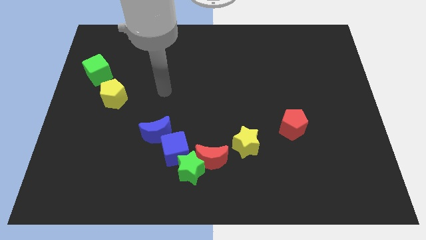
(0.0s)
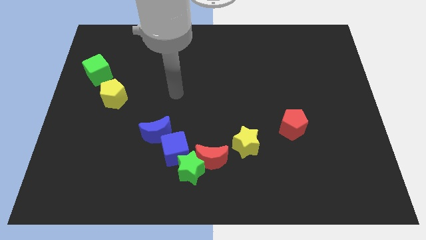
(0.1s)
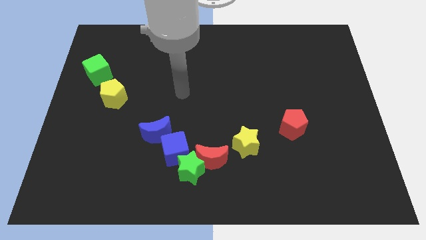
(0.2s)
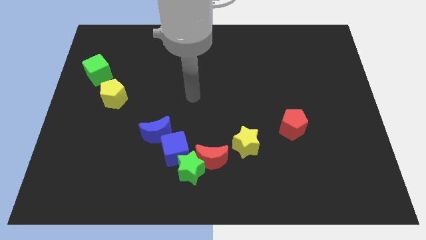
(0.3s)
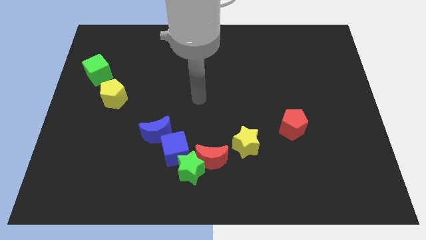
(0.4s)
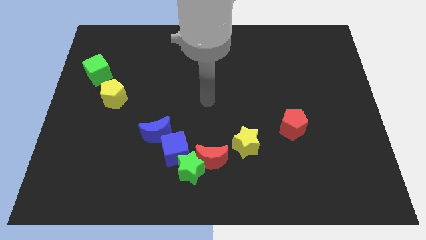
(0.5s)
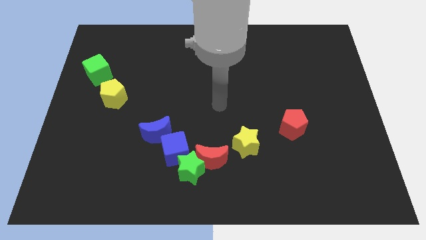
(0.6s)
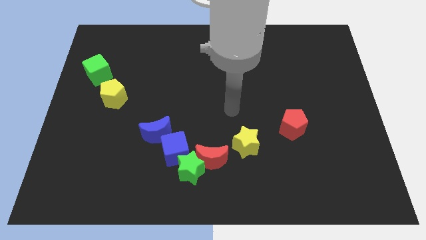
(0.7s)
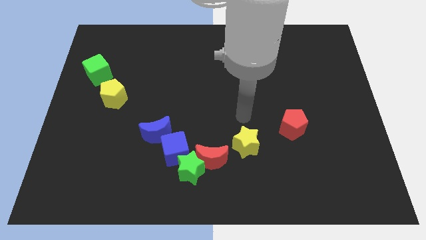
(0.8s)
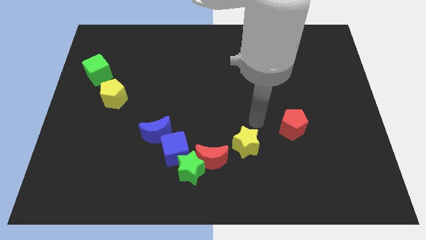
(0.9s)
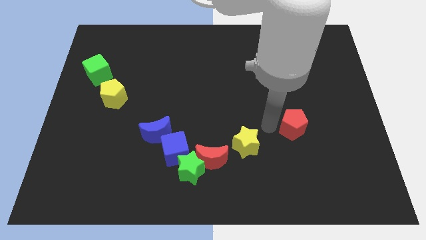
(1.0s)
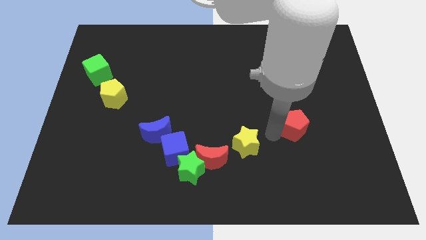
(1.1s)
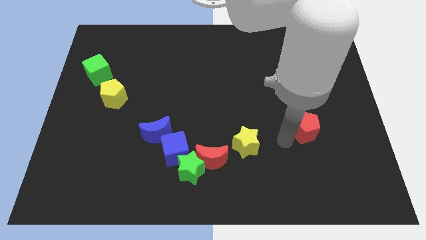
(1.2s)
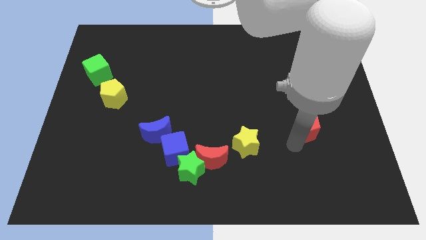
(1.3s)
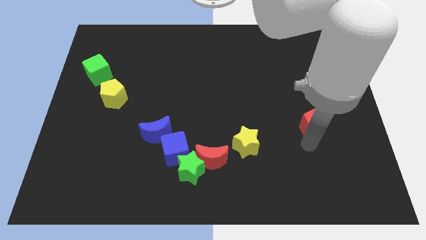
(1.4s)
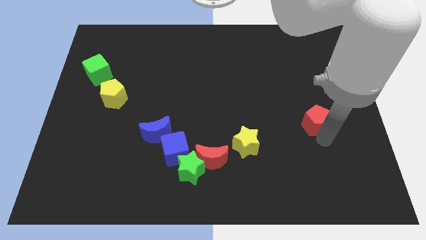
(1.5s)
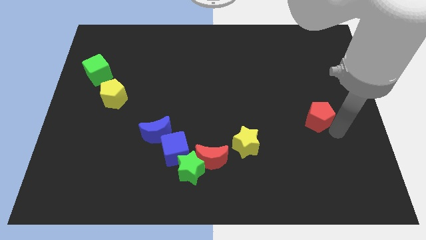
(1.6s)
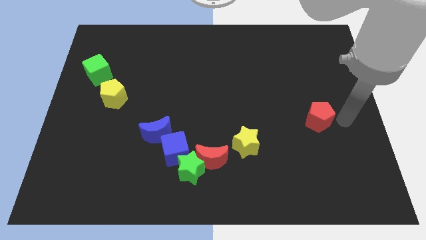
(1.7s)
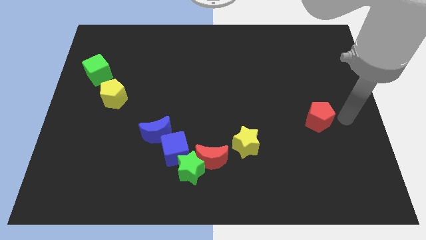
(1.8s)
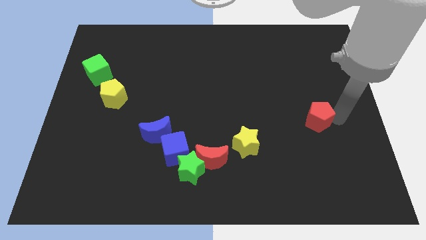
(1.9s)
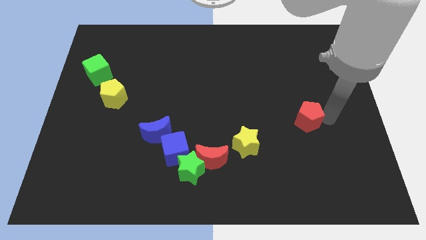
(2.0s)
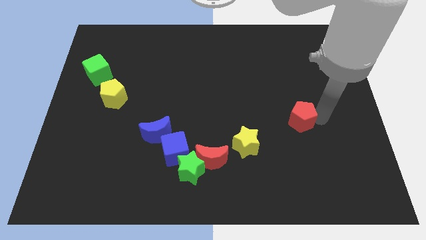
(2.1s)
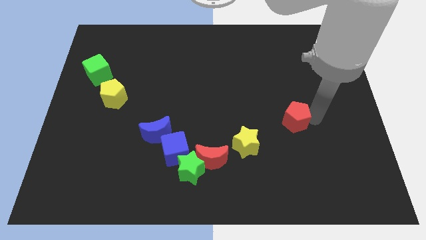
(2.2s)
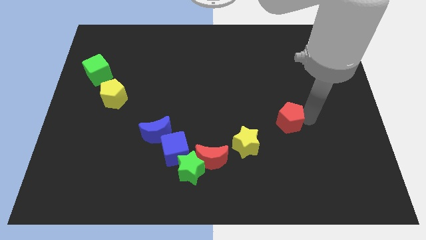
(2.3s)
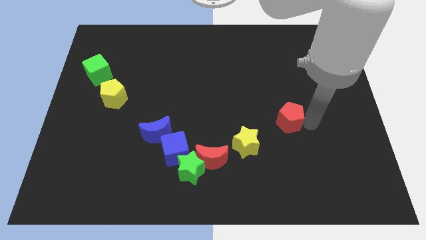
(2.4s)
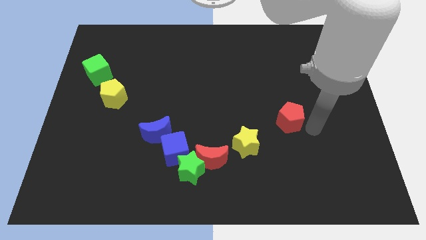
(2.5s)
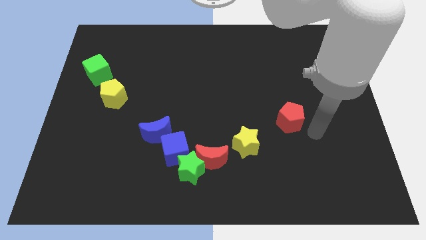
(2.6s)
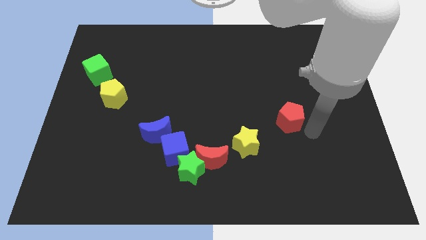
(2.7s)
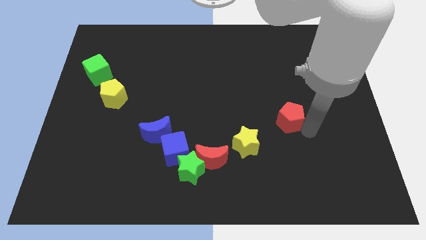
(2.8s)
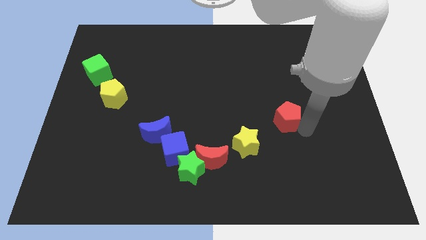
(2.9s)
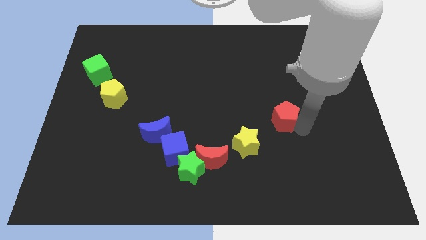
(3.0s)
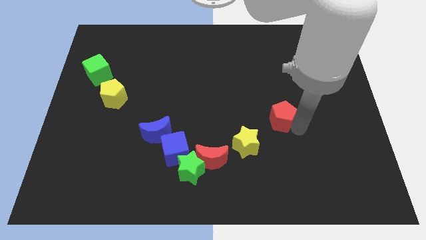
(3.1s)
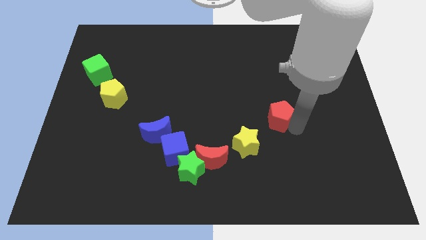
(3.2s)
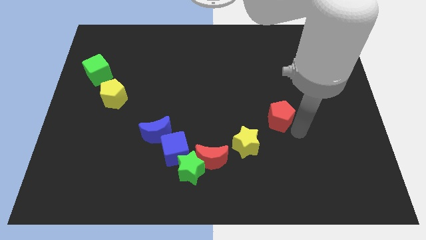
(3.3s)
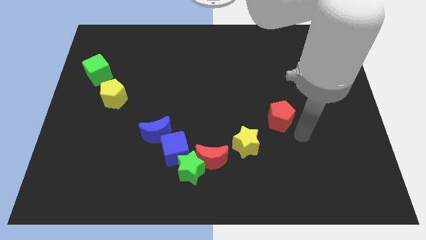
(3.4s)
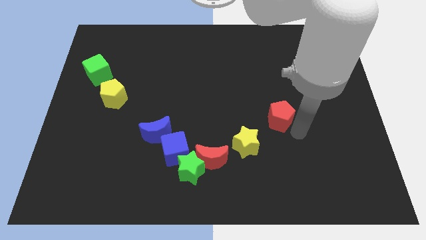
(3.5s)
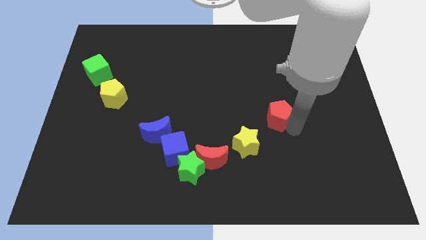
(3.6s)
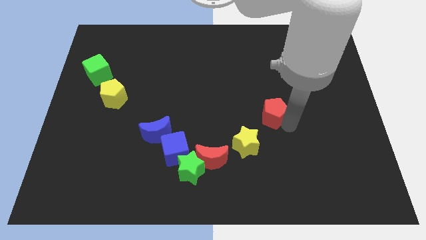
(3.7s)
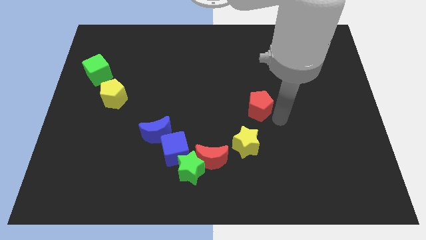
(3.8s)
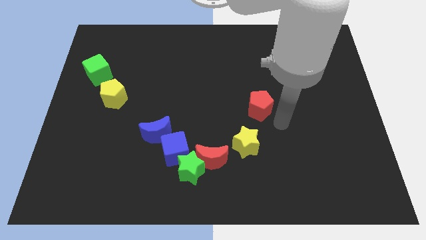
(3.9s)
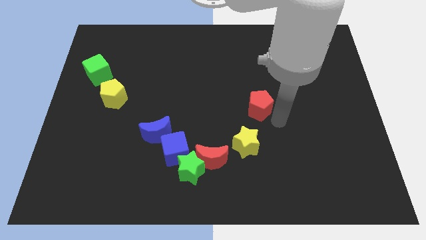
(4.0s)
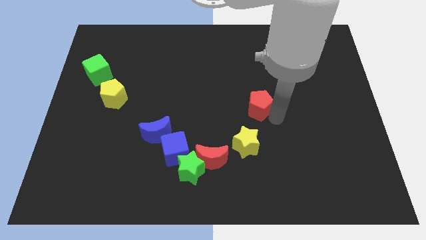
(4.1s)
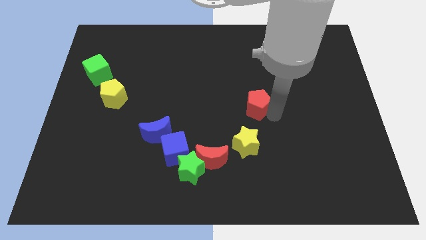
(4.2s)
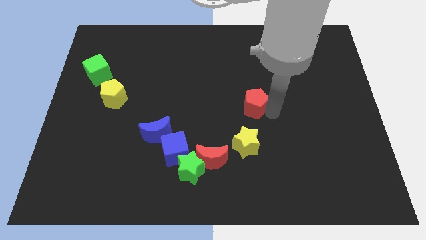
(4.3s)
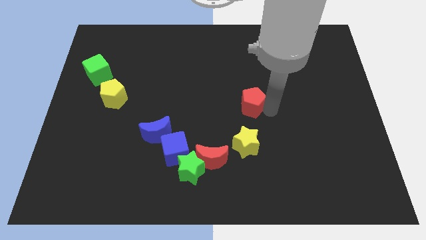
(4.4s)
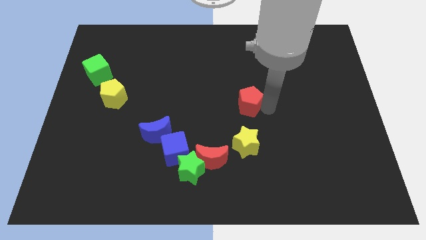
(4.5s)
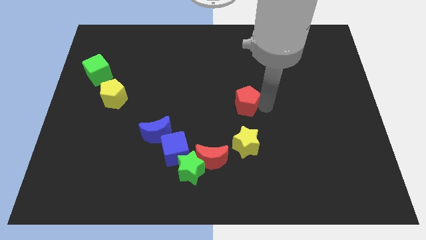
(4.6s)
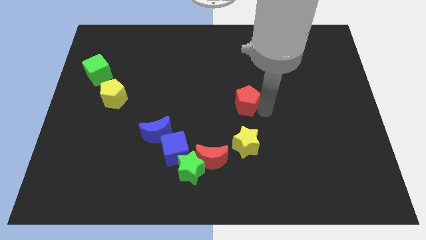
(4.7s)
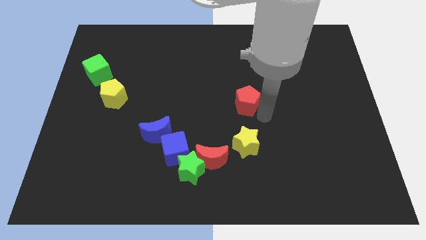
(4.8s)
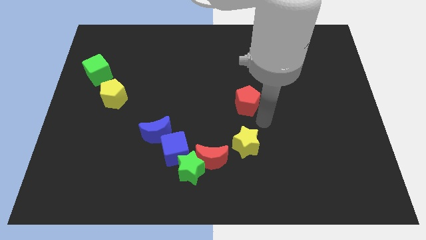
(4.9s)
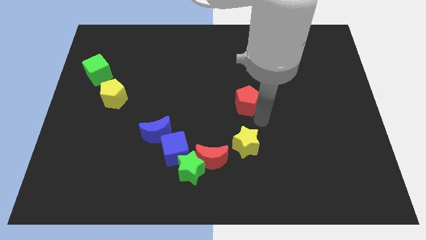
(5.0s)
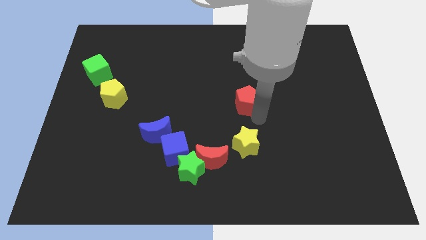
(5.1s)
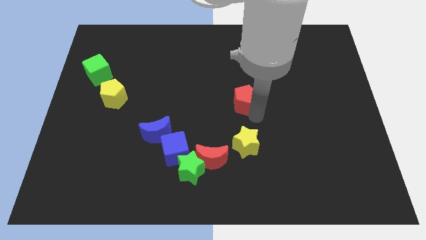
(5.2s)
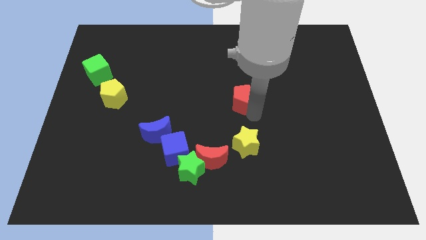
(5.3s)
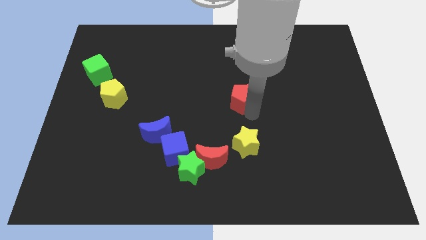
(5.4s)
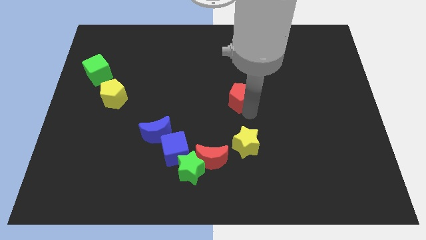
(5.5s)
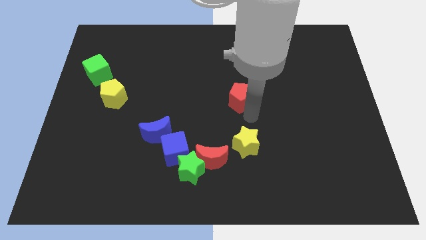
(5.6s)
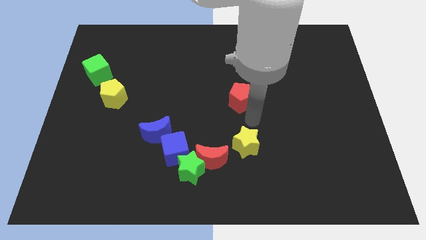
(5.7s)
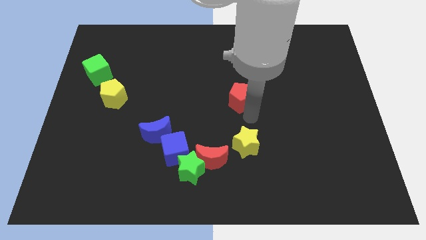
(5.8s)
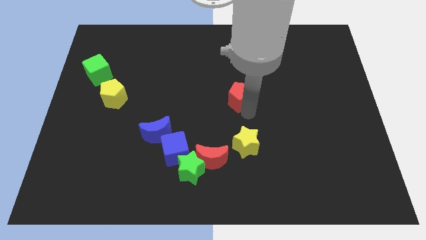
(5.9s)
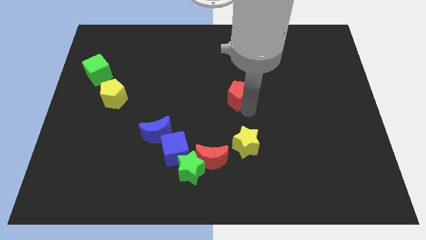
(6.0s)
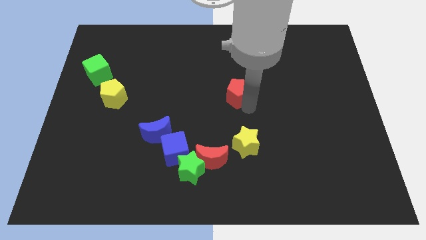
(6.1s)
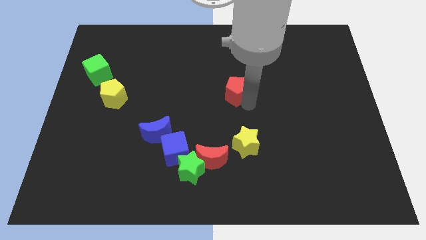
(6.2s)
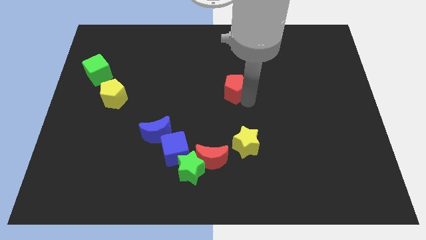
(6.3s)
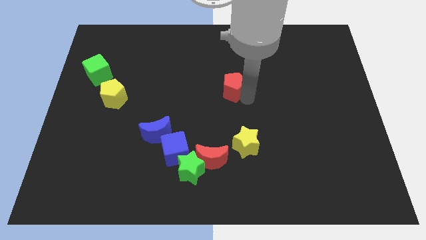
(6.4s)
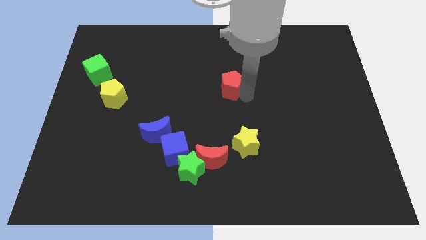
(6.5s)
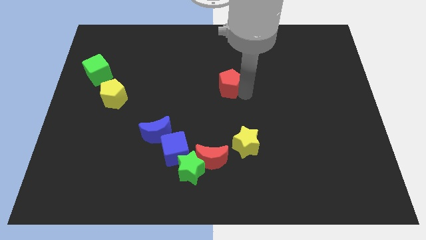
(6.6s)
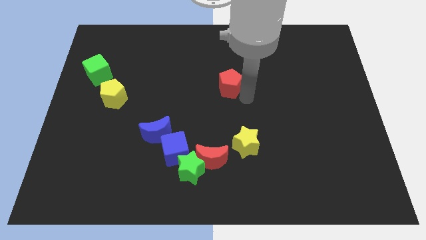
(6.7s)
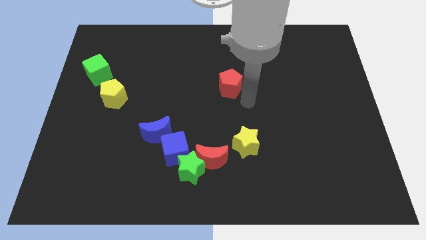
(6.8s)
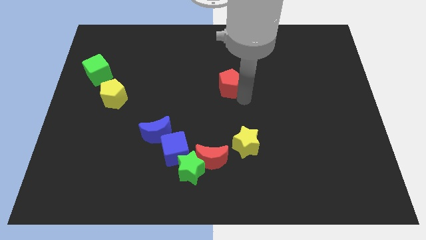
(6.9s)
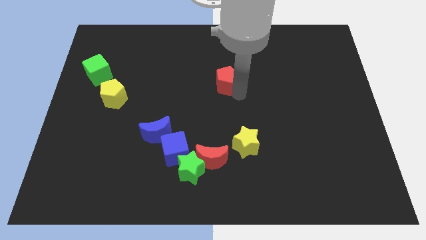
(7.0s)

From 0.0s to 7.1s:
push the red pentagon up and left diagonally

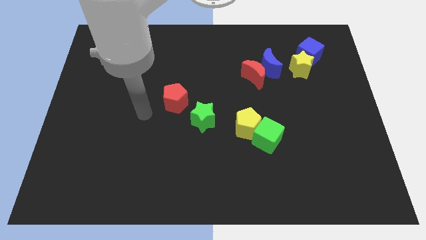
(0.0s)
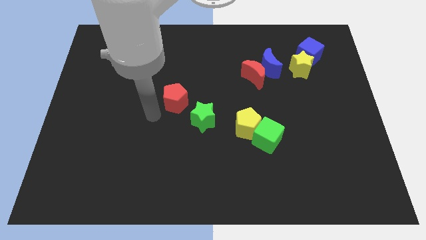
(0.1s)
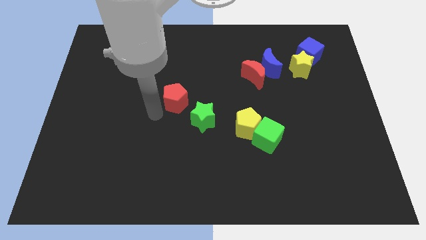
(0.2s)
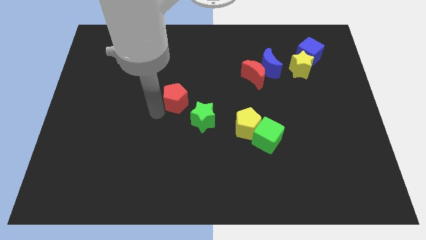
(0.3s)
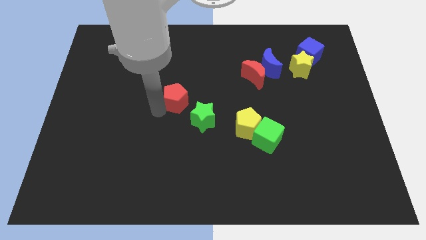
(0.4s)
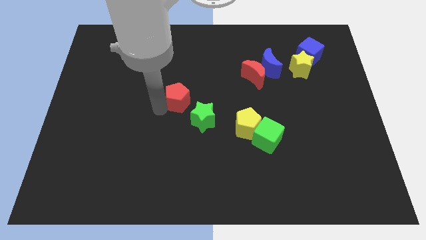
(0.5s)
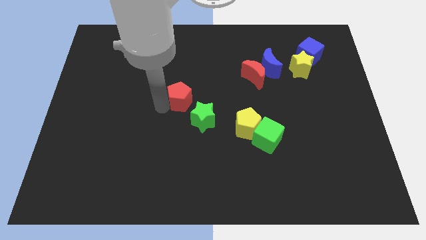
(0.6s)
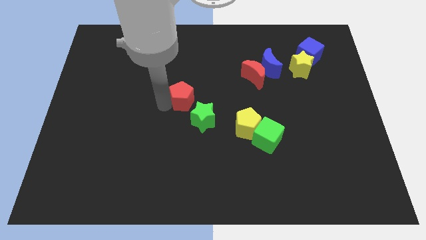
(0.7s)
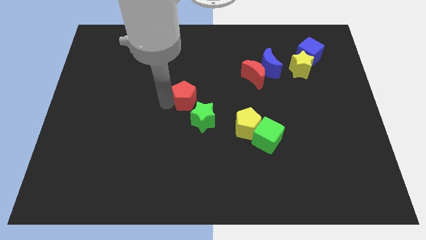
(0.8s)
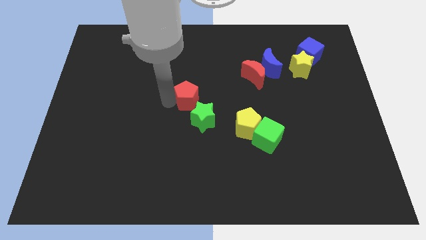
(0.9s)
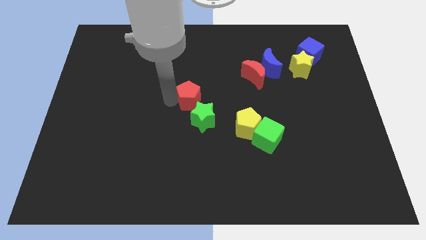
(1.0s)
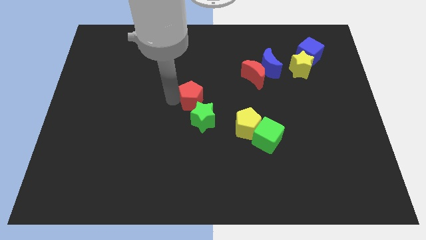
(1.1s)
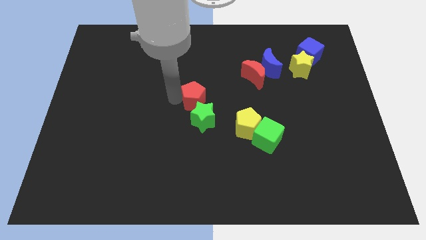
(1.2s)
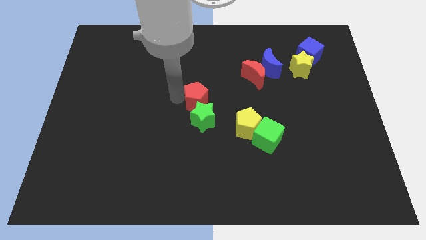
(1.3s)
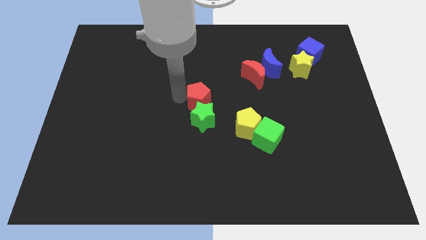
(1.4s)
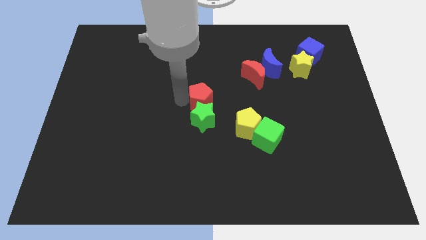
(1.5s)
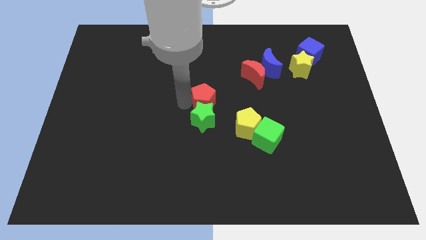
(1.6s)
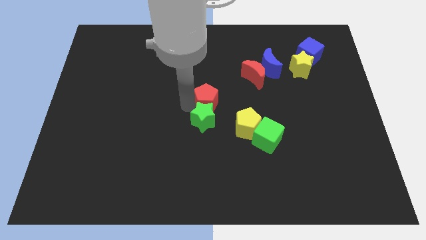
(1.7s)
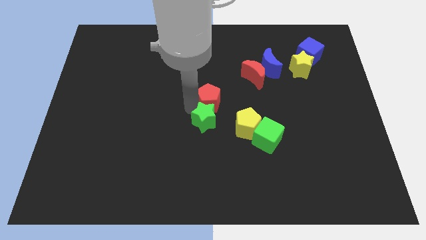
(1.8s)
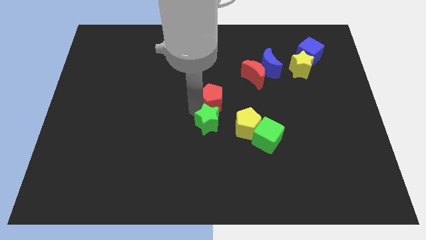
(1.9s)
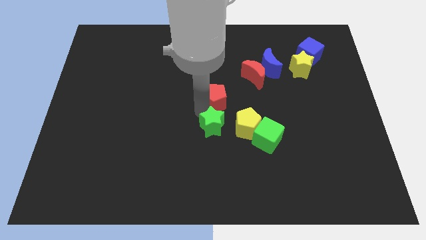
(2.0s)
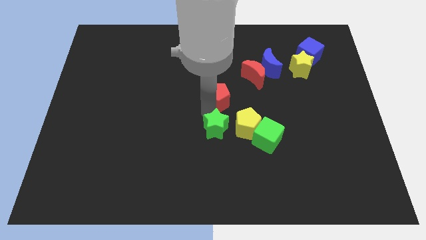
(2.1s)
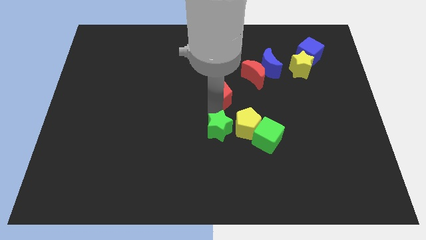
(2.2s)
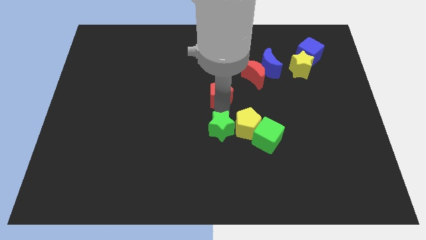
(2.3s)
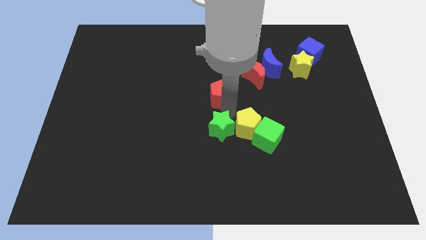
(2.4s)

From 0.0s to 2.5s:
slightly move the red pentagon upwards and right diagonally
